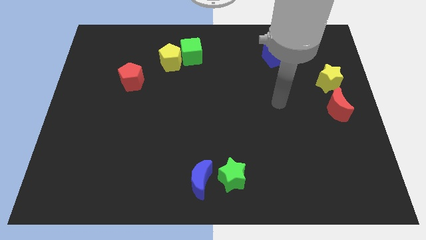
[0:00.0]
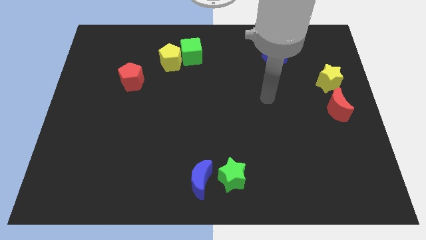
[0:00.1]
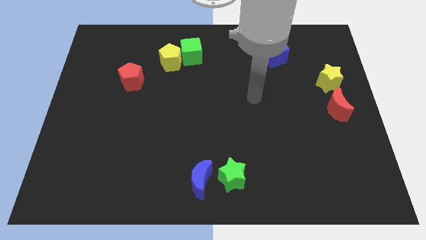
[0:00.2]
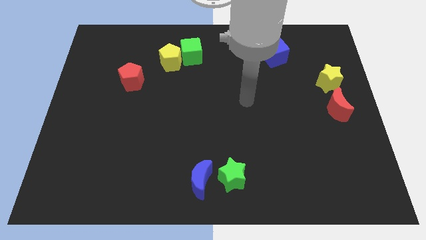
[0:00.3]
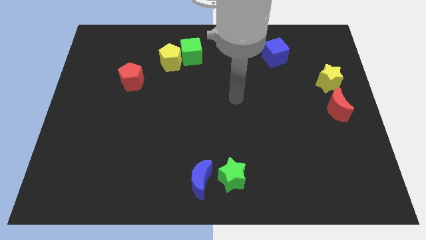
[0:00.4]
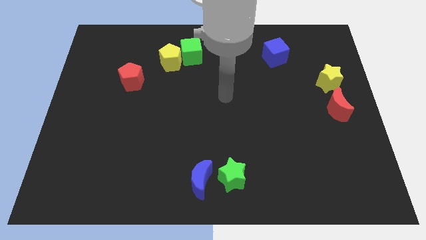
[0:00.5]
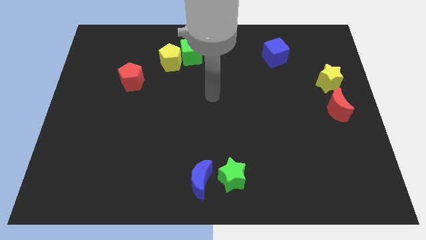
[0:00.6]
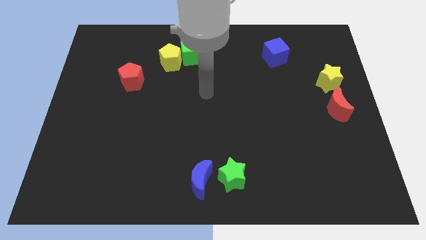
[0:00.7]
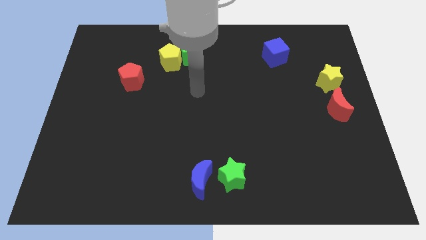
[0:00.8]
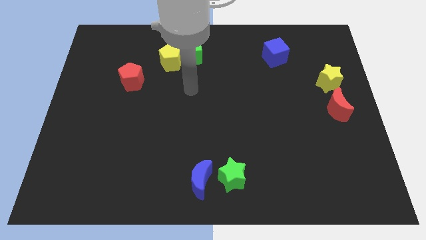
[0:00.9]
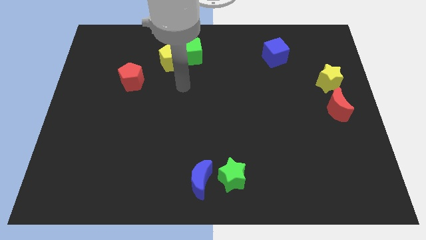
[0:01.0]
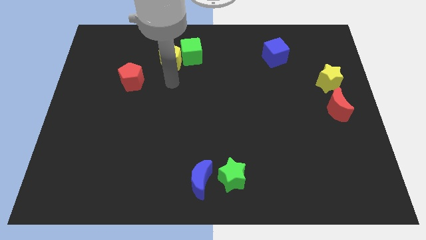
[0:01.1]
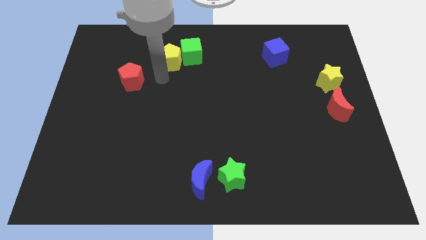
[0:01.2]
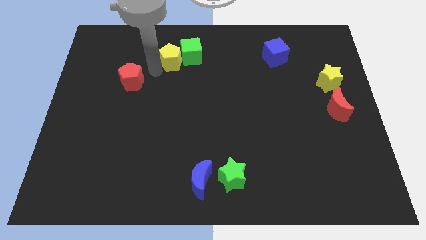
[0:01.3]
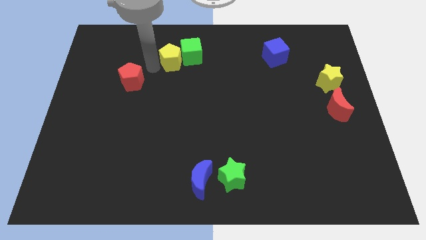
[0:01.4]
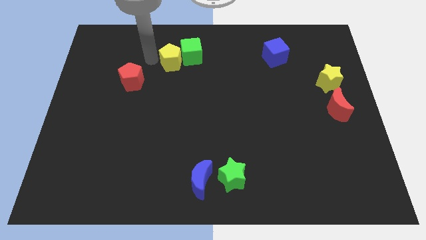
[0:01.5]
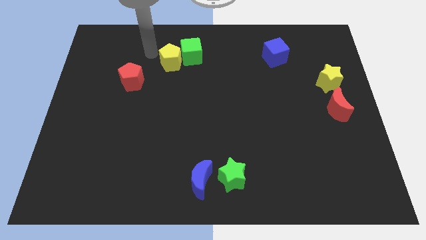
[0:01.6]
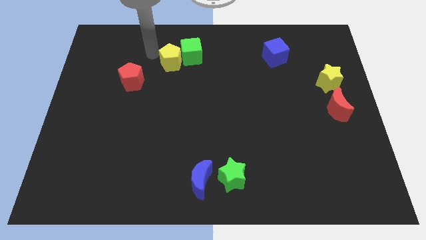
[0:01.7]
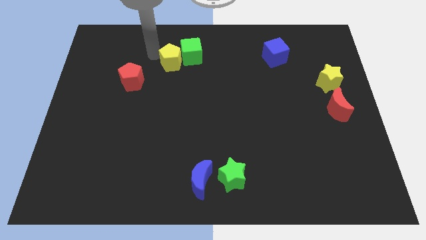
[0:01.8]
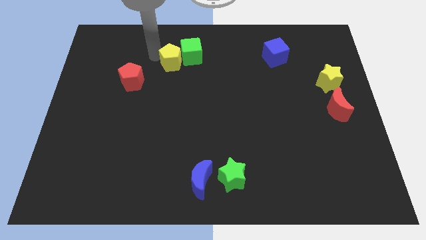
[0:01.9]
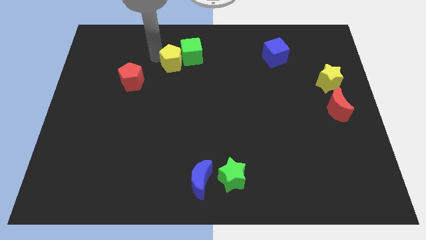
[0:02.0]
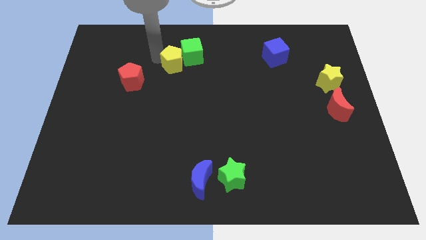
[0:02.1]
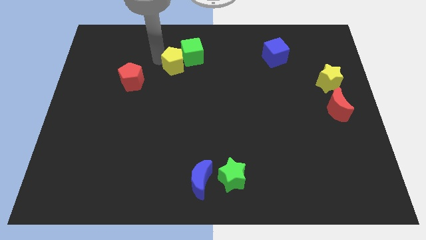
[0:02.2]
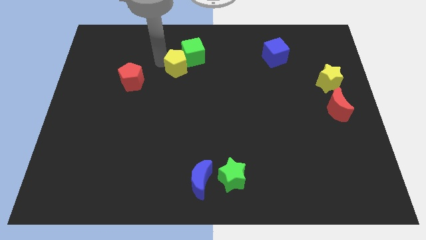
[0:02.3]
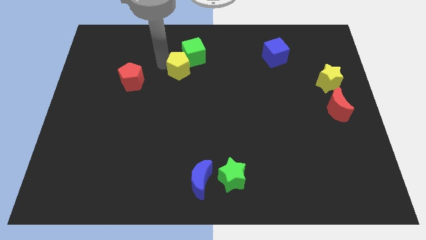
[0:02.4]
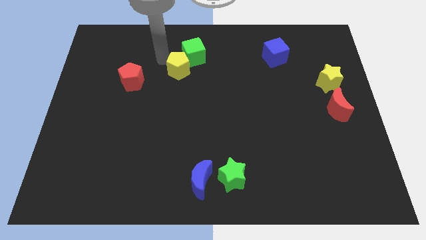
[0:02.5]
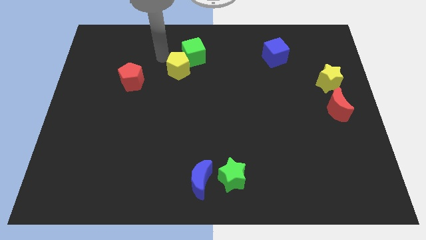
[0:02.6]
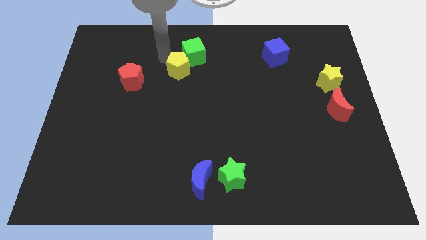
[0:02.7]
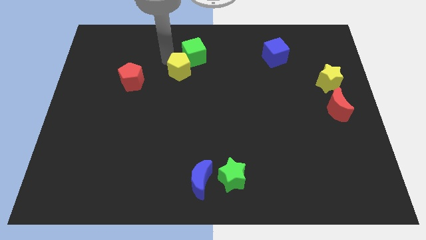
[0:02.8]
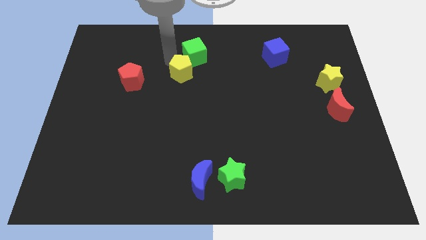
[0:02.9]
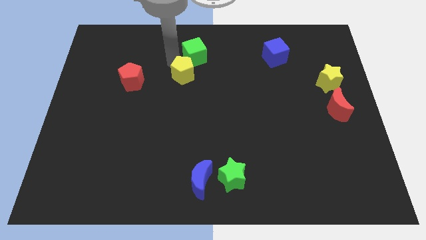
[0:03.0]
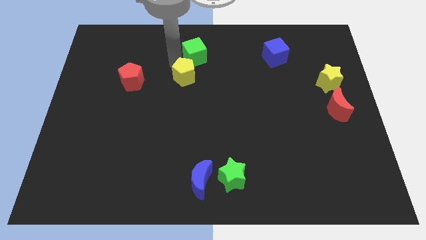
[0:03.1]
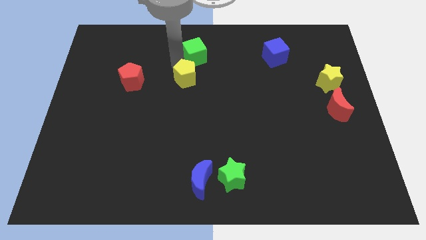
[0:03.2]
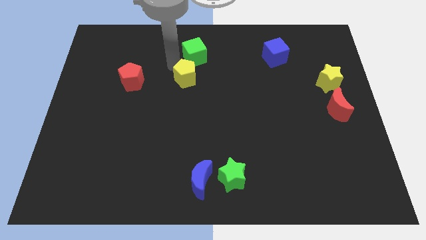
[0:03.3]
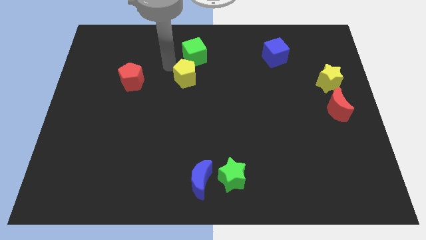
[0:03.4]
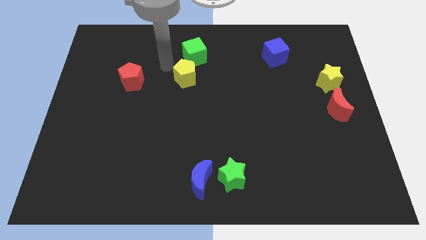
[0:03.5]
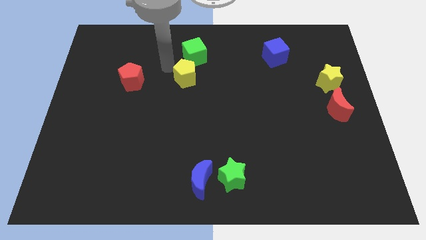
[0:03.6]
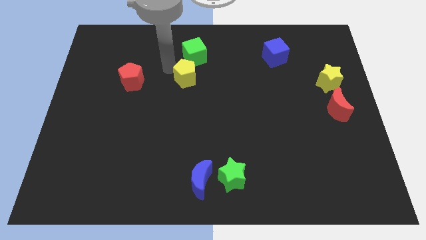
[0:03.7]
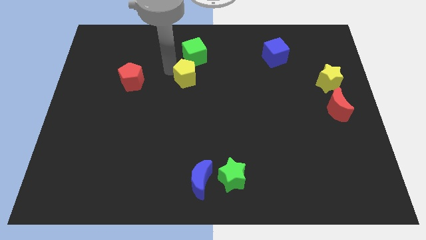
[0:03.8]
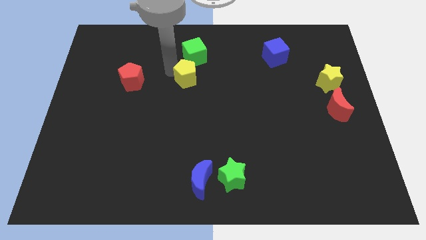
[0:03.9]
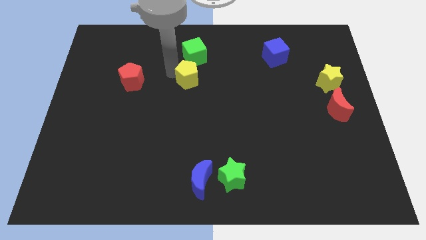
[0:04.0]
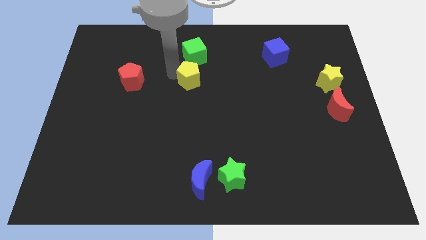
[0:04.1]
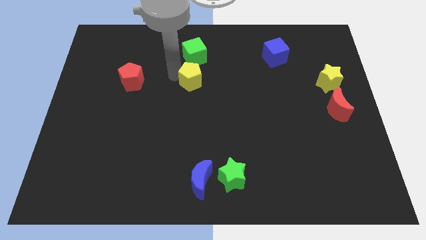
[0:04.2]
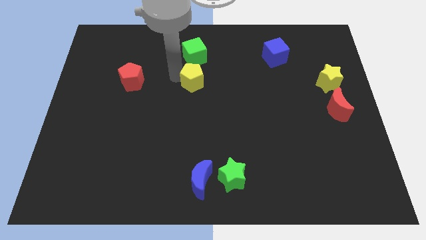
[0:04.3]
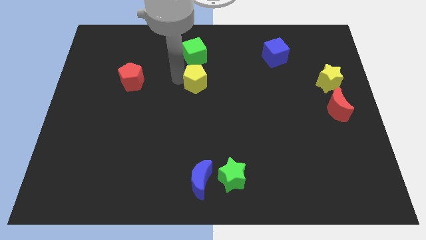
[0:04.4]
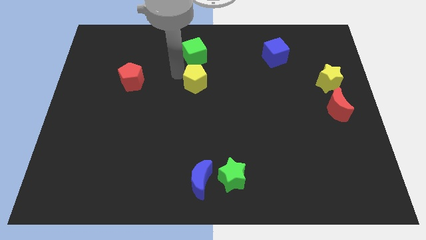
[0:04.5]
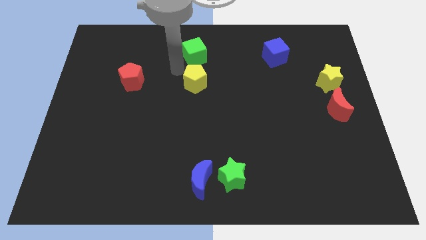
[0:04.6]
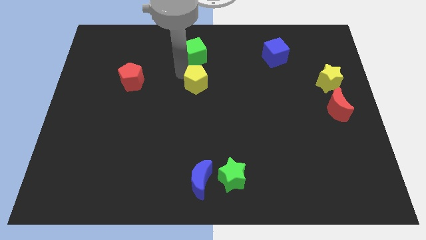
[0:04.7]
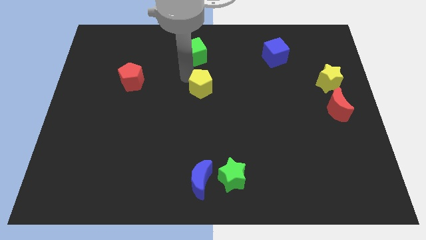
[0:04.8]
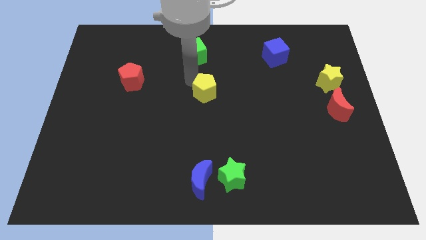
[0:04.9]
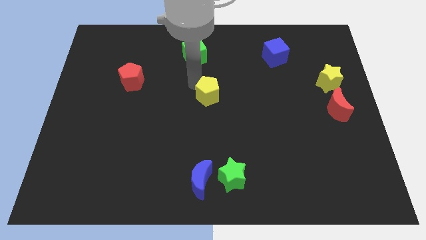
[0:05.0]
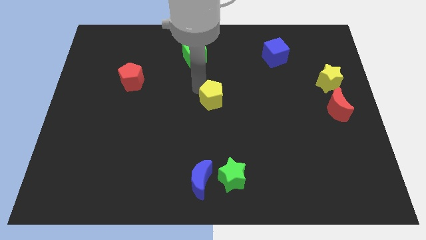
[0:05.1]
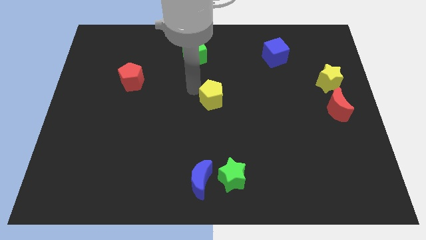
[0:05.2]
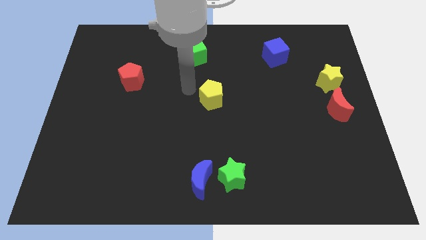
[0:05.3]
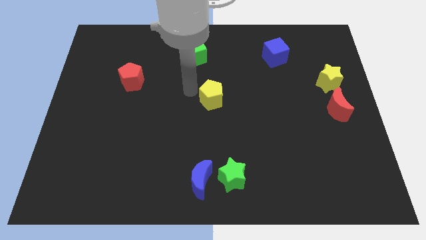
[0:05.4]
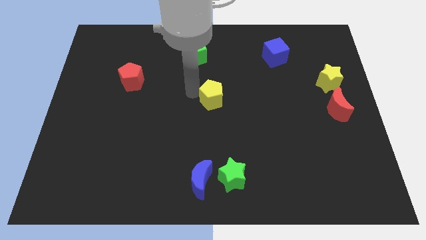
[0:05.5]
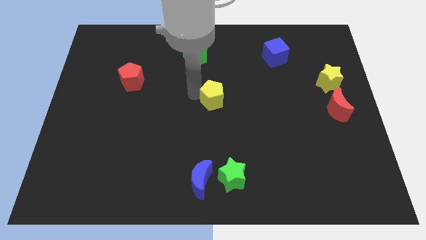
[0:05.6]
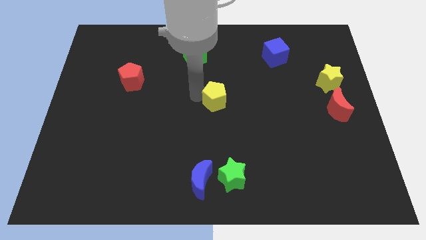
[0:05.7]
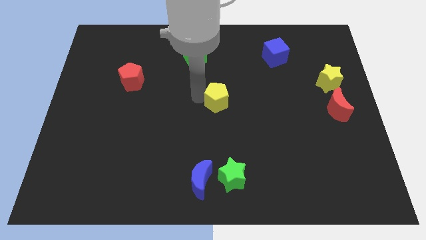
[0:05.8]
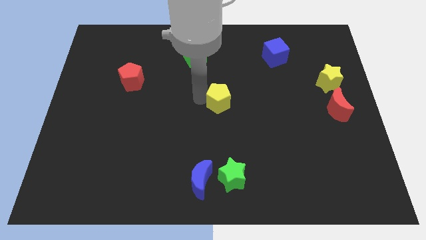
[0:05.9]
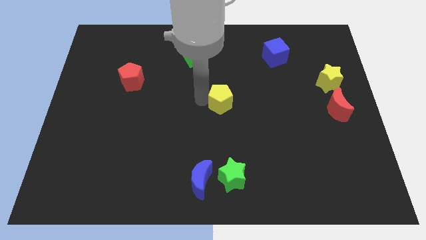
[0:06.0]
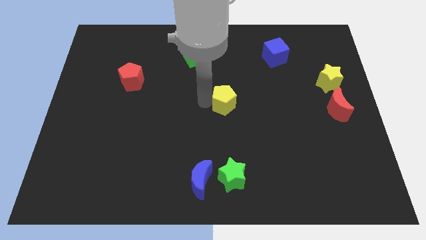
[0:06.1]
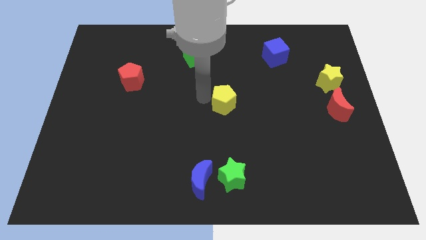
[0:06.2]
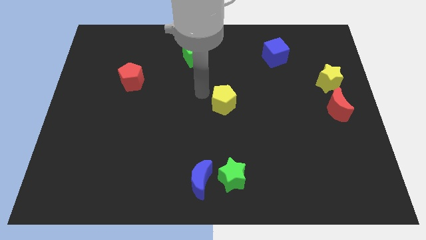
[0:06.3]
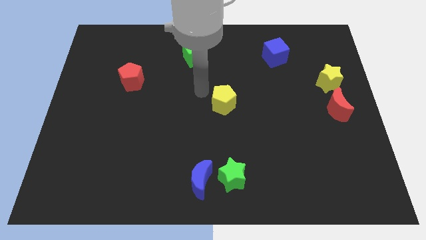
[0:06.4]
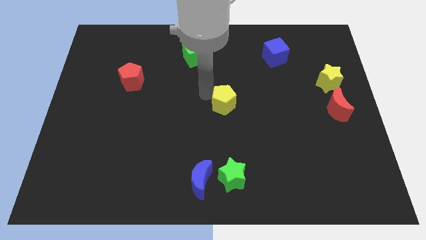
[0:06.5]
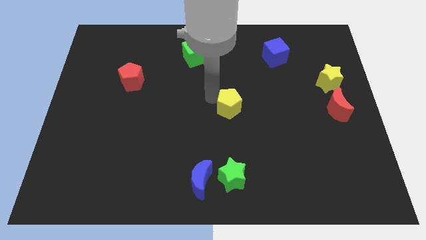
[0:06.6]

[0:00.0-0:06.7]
slide the yellow pentagon down and to the right

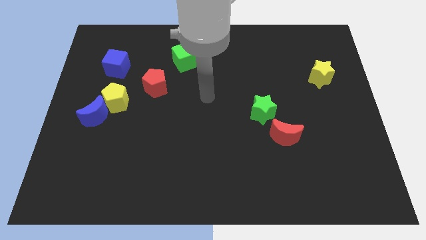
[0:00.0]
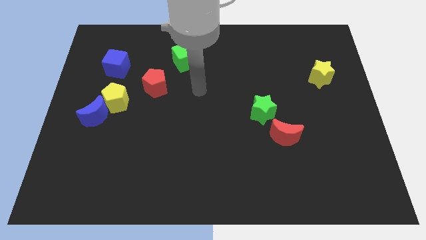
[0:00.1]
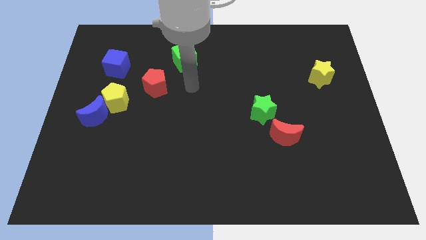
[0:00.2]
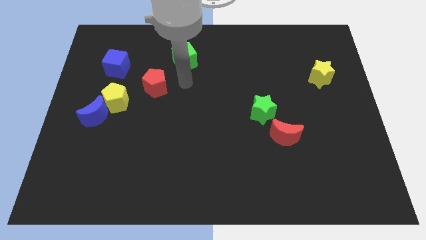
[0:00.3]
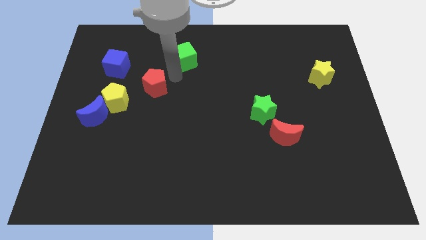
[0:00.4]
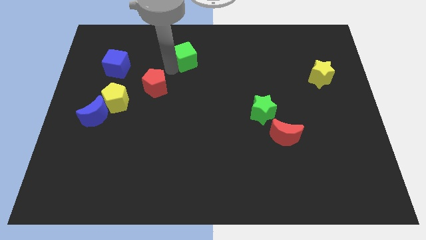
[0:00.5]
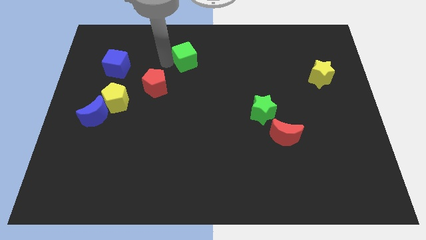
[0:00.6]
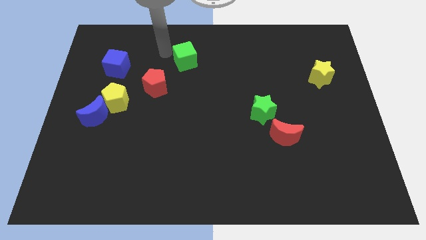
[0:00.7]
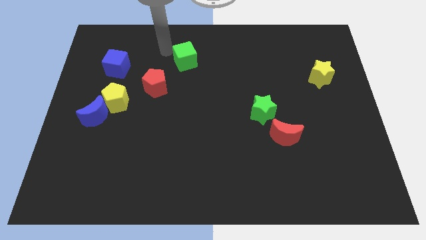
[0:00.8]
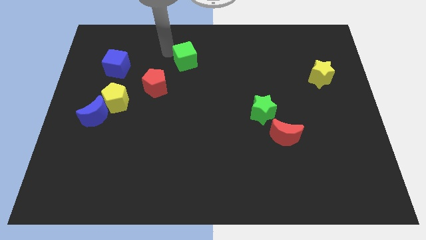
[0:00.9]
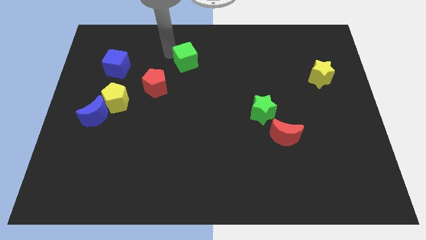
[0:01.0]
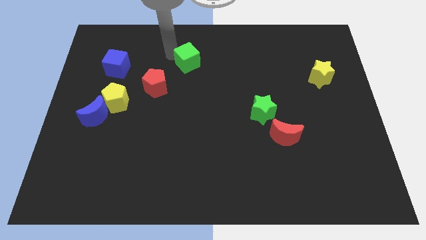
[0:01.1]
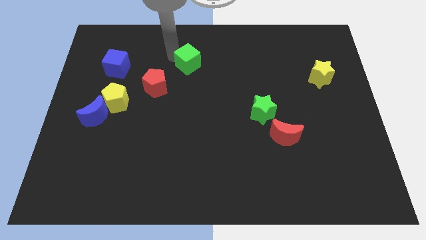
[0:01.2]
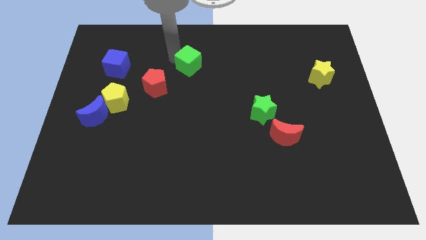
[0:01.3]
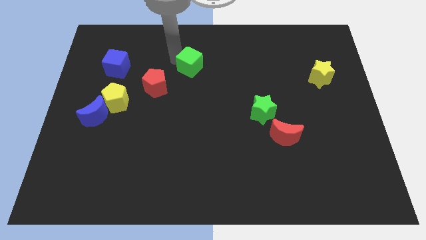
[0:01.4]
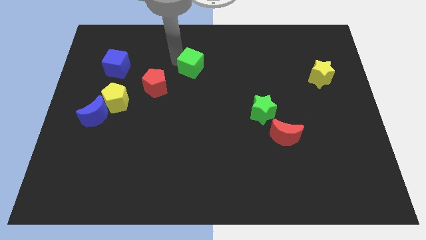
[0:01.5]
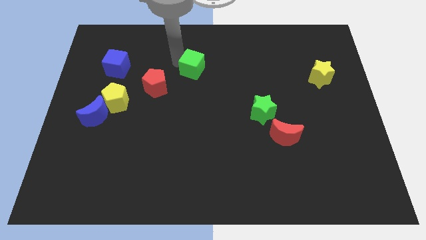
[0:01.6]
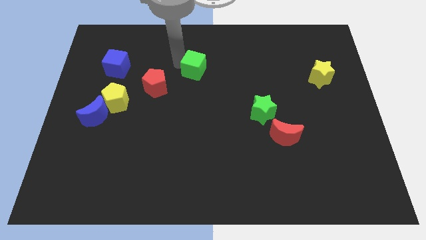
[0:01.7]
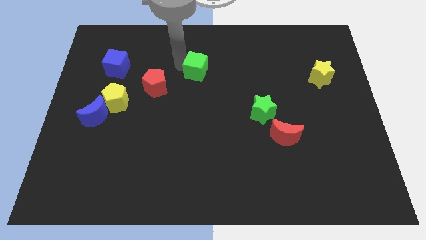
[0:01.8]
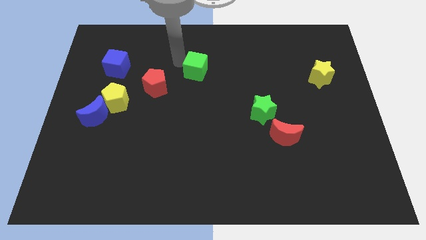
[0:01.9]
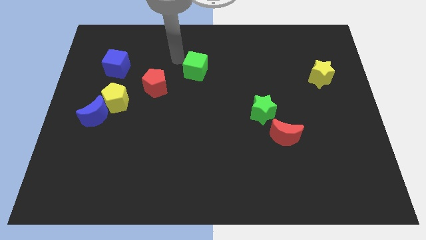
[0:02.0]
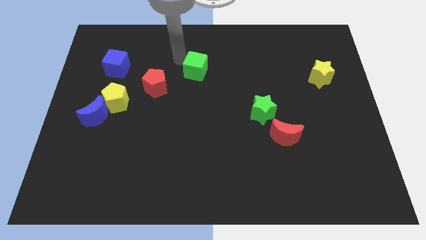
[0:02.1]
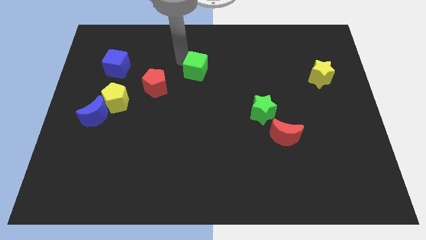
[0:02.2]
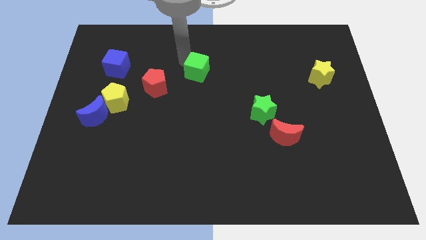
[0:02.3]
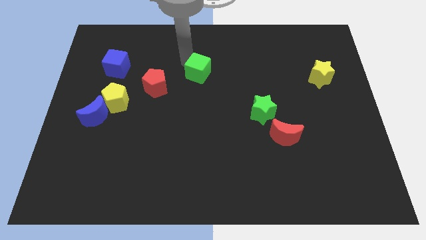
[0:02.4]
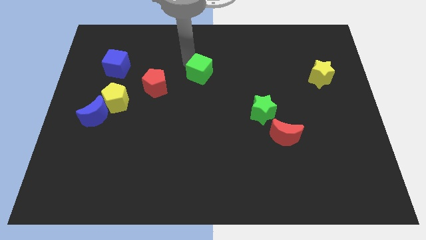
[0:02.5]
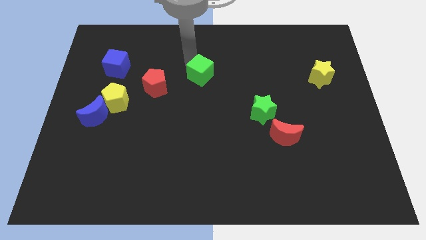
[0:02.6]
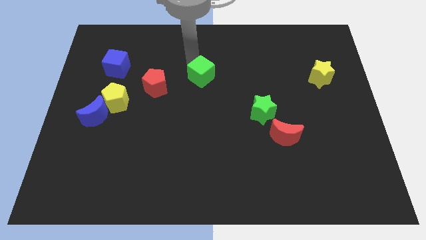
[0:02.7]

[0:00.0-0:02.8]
move the green cube a little bit diagonally down and to the right
